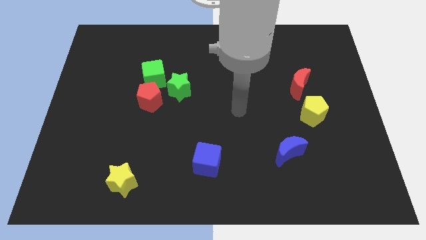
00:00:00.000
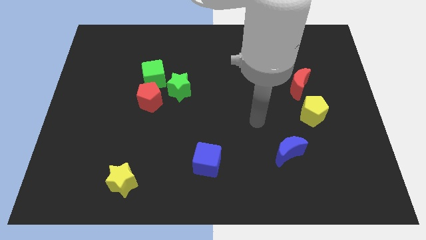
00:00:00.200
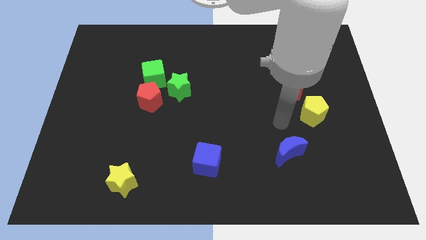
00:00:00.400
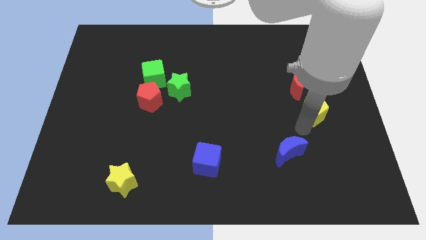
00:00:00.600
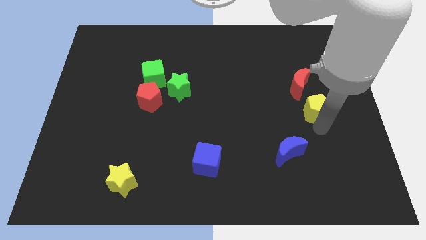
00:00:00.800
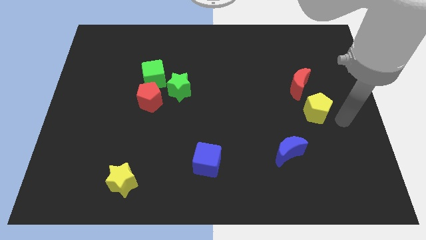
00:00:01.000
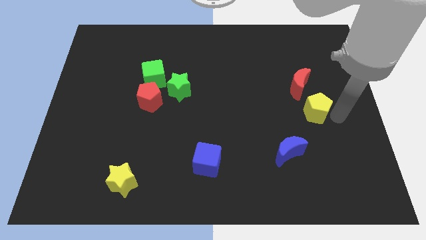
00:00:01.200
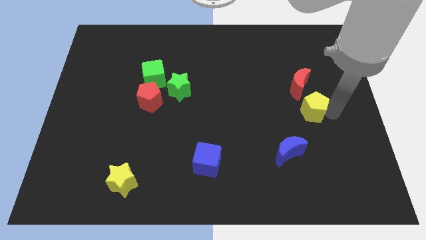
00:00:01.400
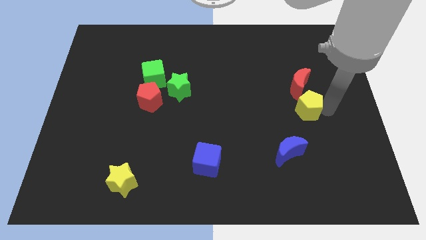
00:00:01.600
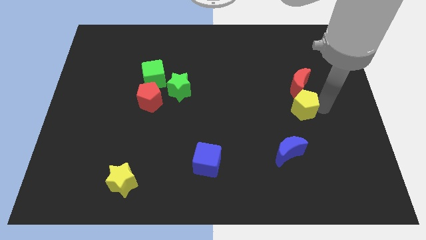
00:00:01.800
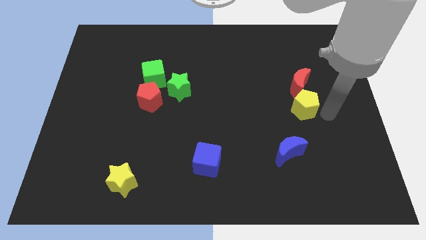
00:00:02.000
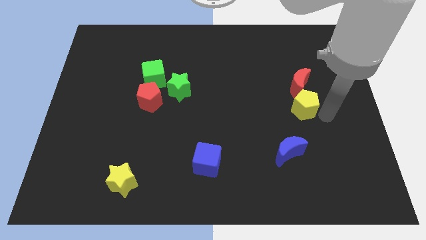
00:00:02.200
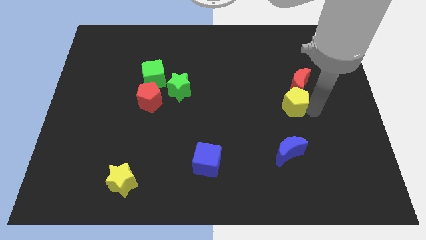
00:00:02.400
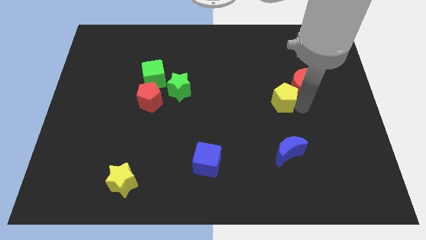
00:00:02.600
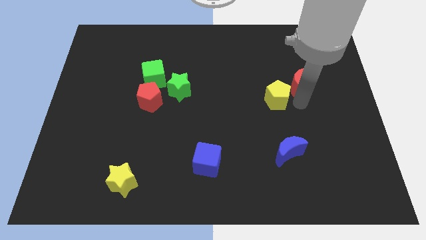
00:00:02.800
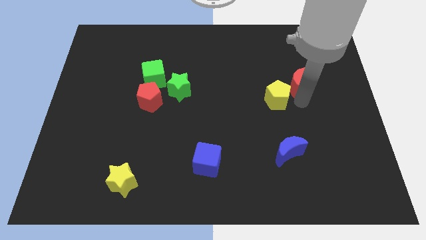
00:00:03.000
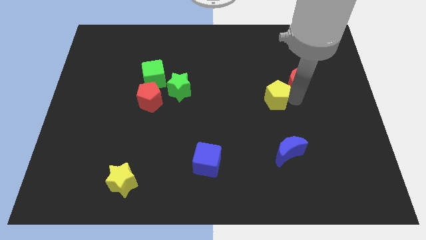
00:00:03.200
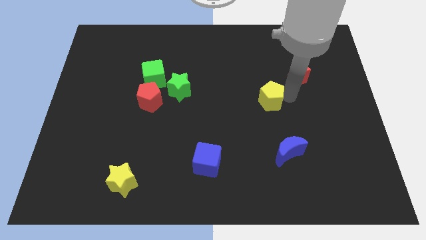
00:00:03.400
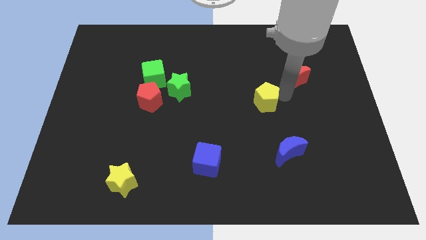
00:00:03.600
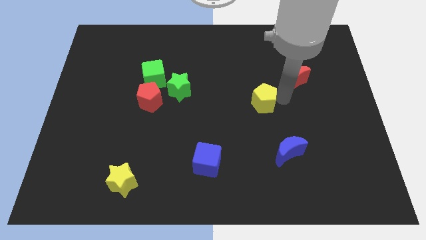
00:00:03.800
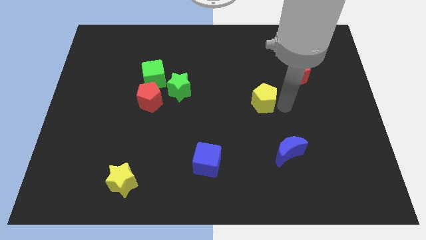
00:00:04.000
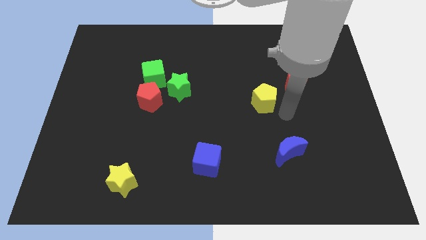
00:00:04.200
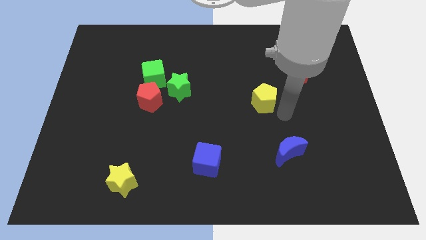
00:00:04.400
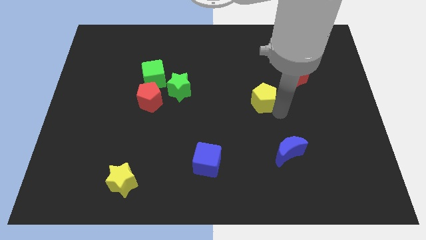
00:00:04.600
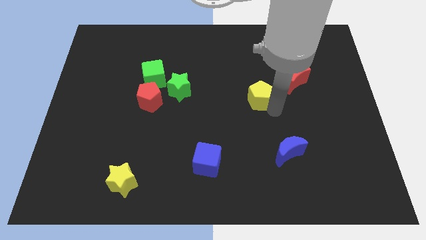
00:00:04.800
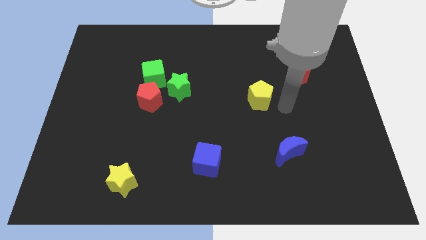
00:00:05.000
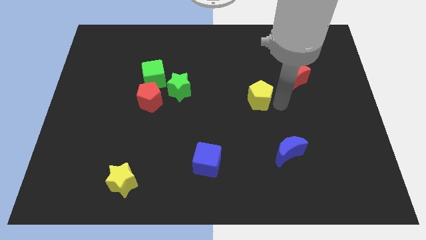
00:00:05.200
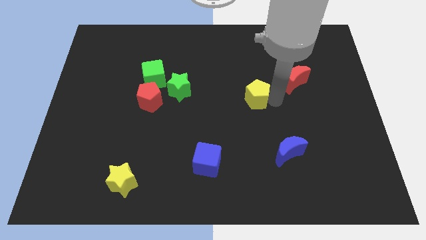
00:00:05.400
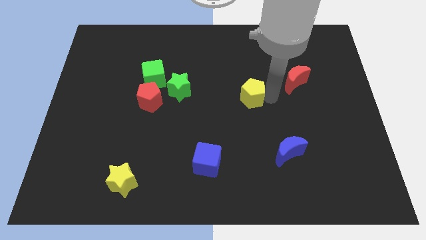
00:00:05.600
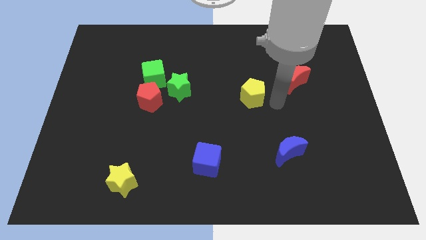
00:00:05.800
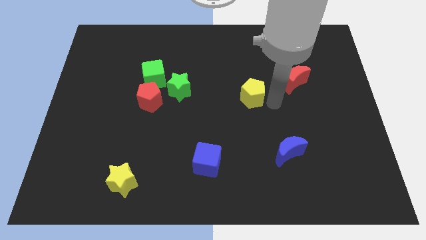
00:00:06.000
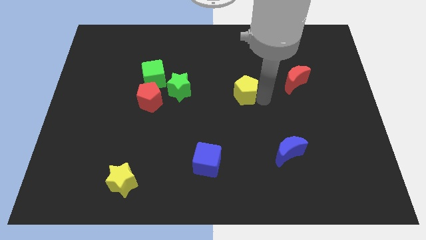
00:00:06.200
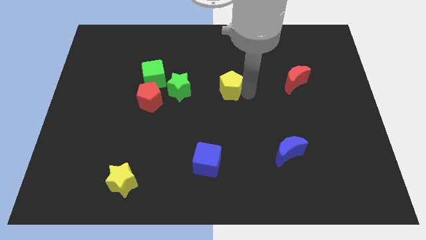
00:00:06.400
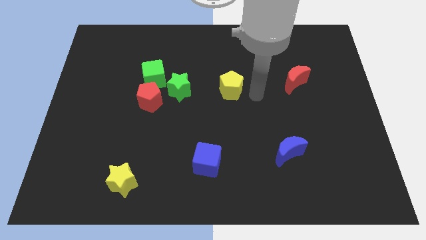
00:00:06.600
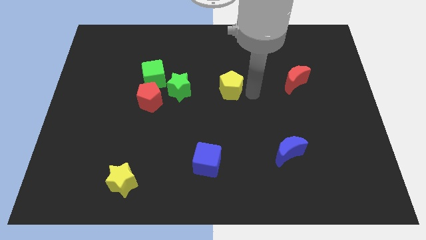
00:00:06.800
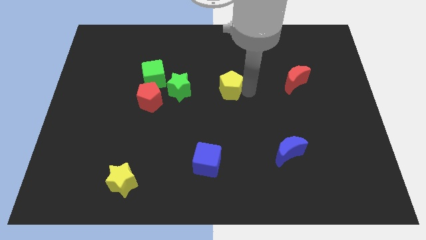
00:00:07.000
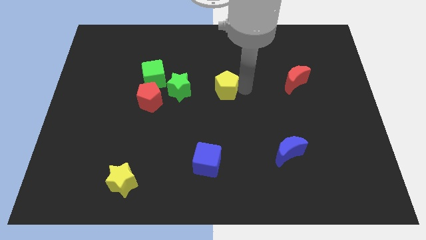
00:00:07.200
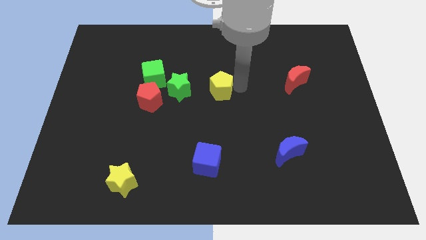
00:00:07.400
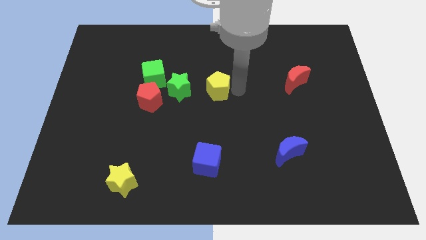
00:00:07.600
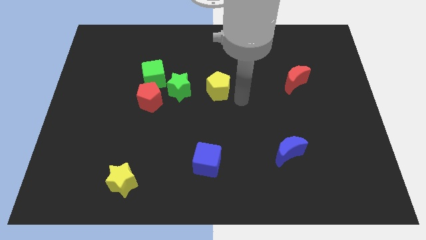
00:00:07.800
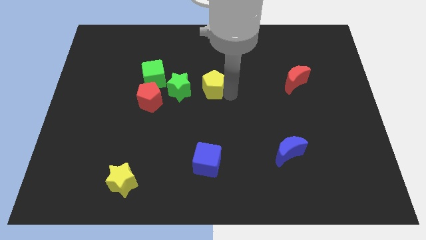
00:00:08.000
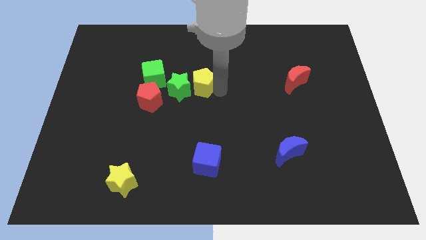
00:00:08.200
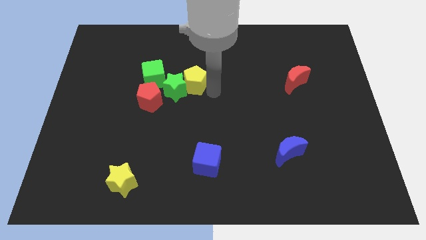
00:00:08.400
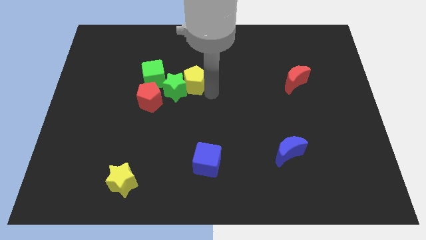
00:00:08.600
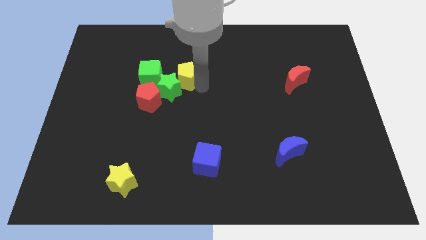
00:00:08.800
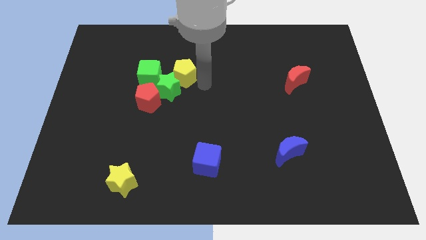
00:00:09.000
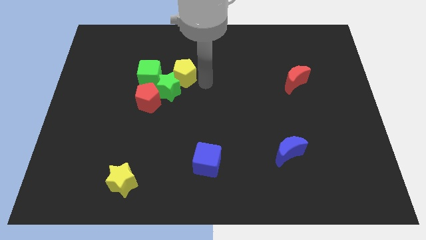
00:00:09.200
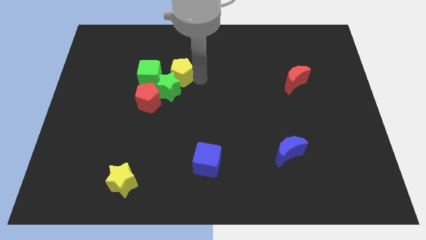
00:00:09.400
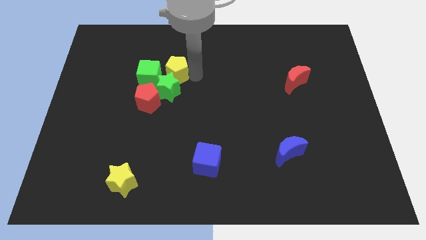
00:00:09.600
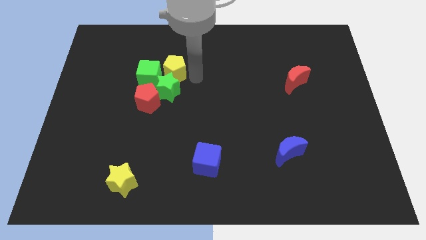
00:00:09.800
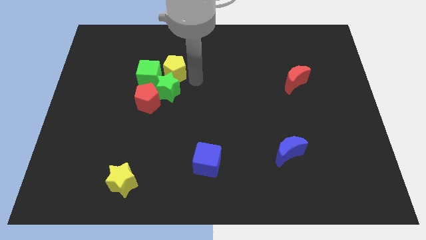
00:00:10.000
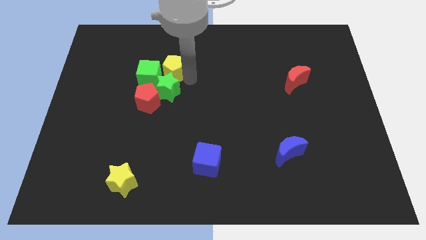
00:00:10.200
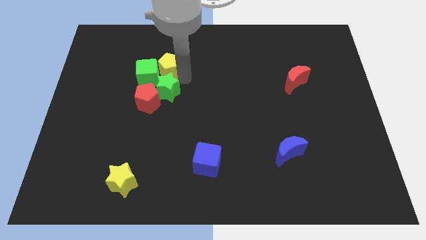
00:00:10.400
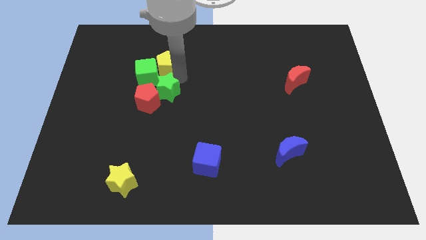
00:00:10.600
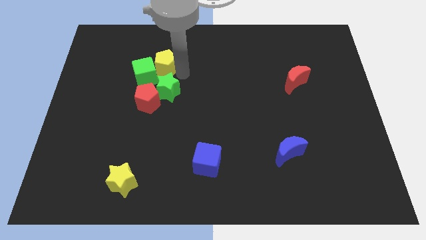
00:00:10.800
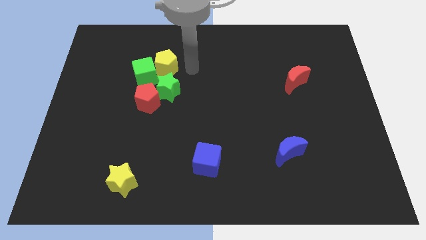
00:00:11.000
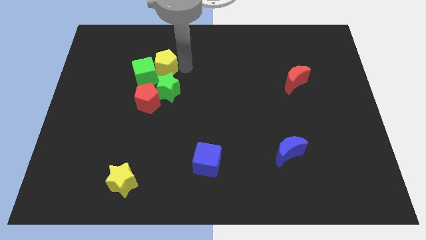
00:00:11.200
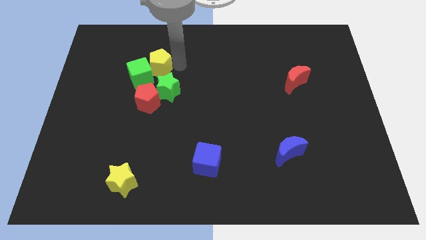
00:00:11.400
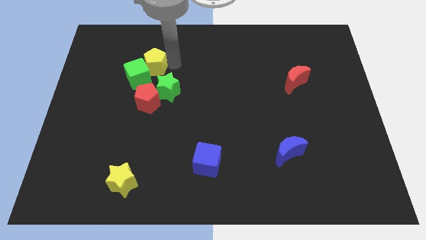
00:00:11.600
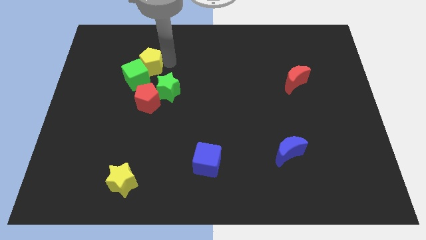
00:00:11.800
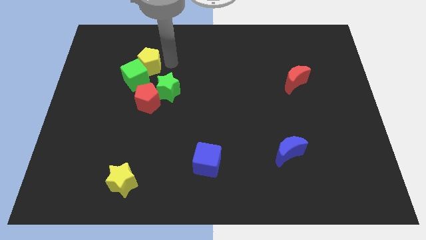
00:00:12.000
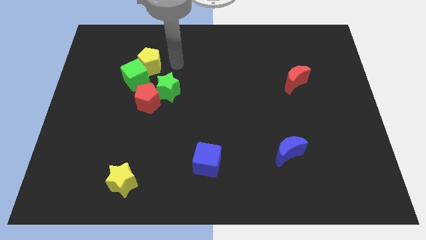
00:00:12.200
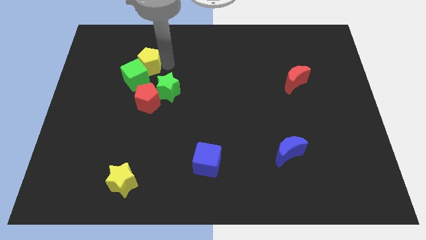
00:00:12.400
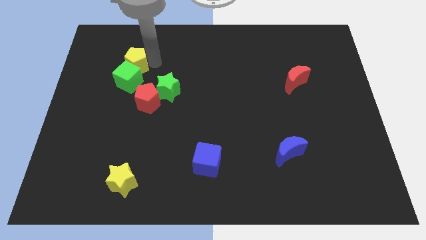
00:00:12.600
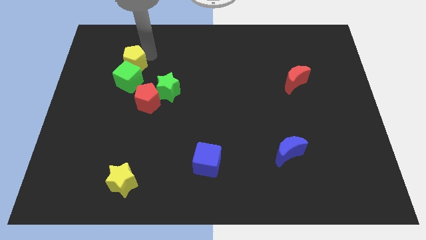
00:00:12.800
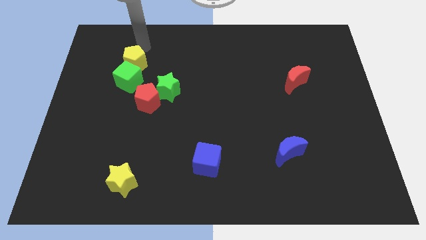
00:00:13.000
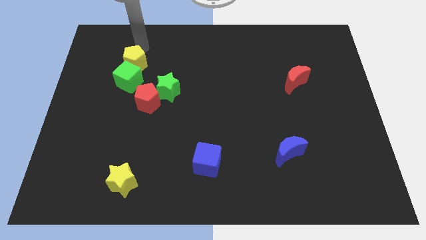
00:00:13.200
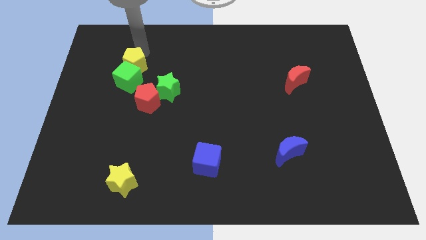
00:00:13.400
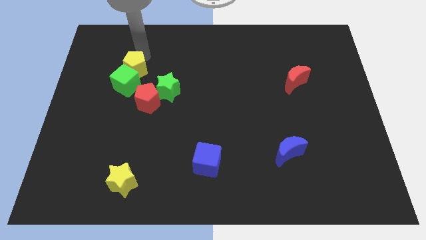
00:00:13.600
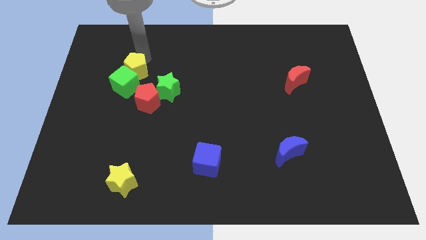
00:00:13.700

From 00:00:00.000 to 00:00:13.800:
push the yellow pentagon diagonally up and to the left of the red pentagon
